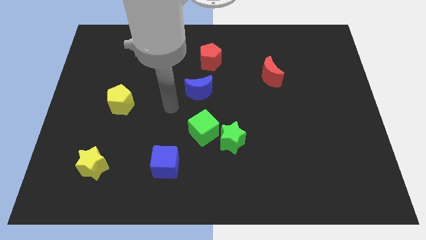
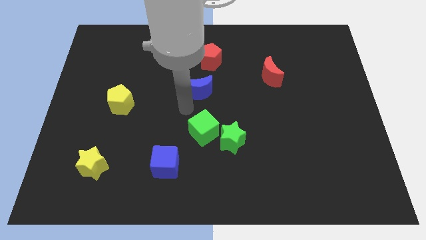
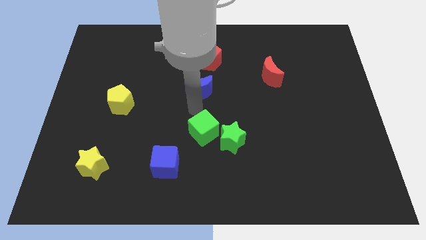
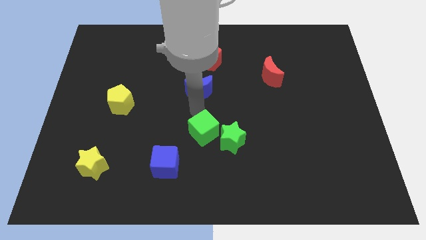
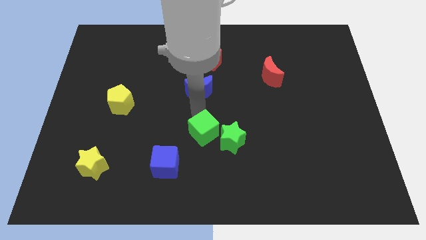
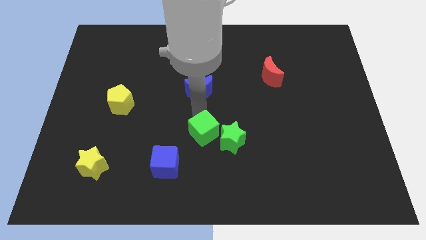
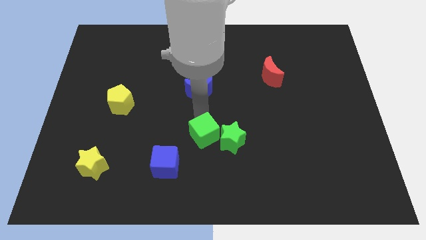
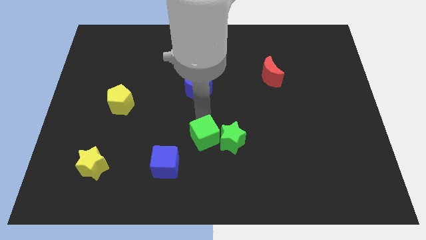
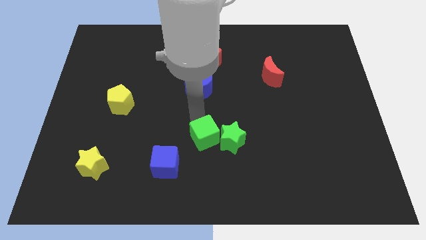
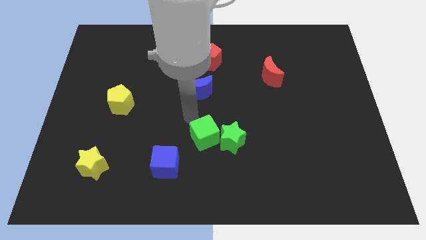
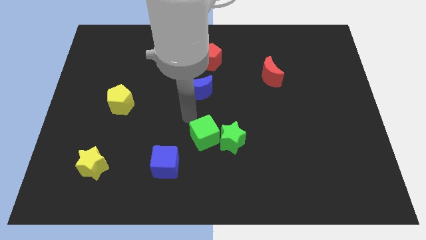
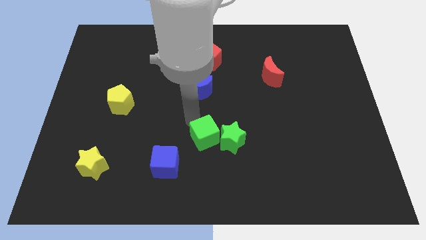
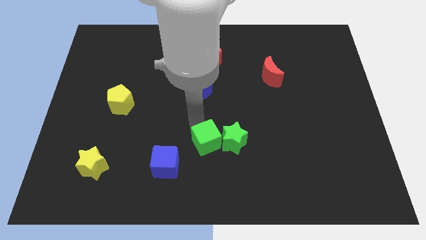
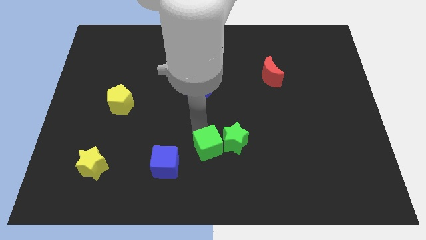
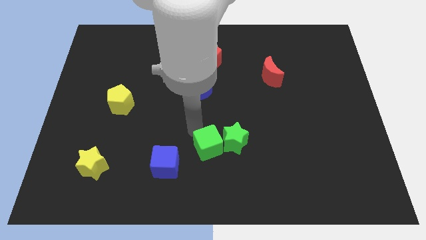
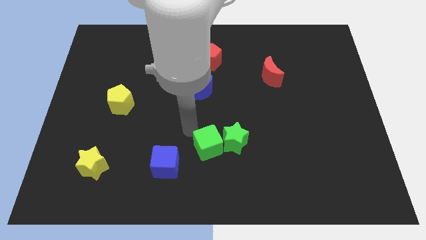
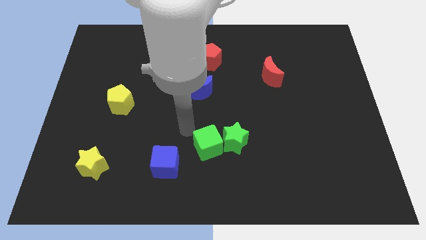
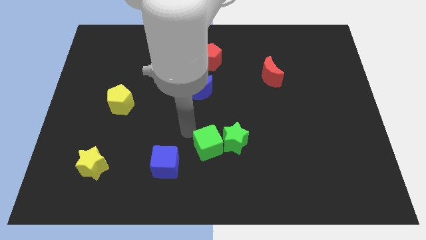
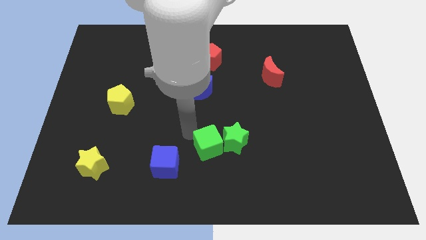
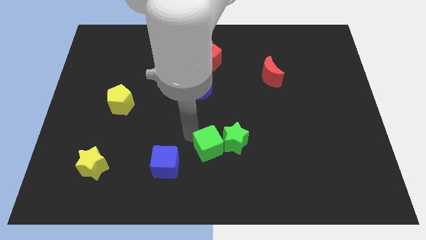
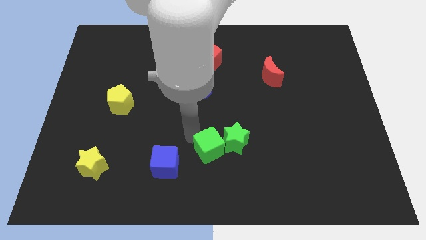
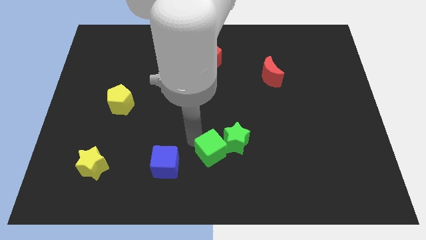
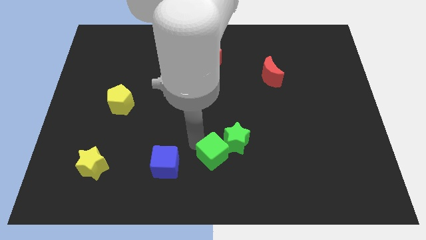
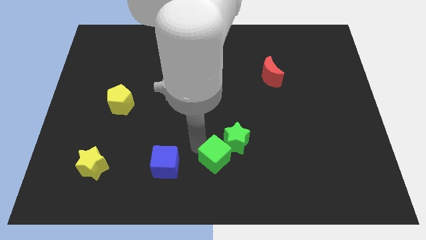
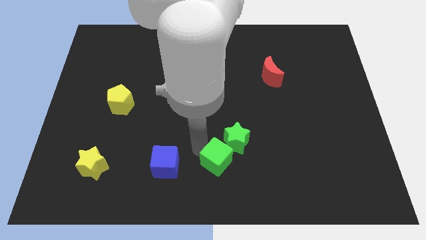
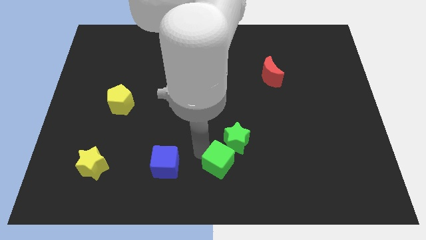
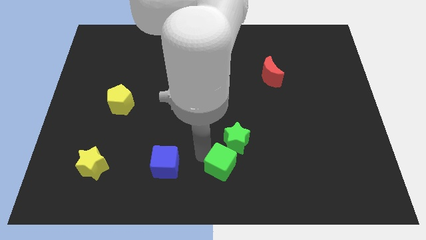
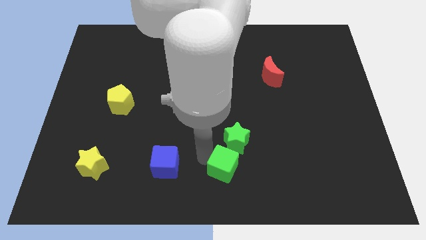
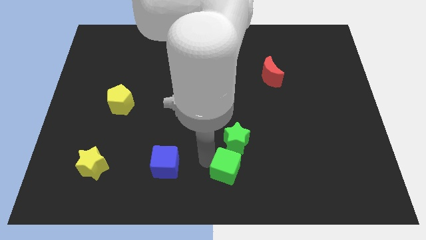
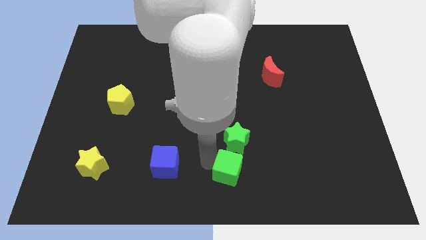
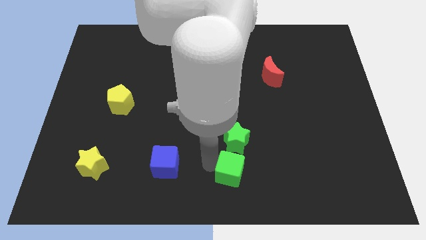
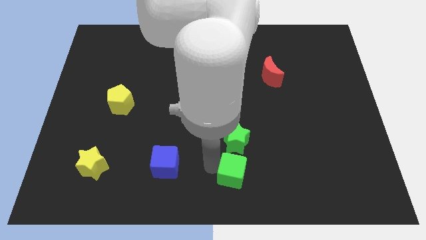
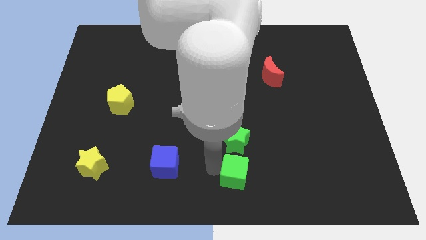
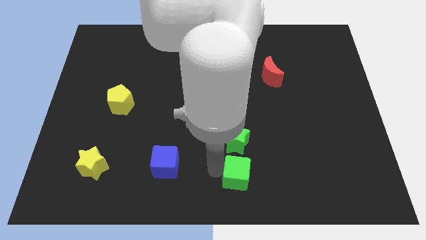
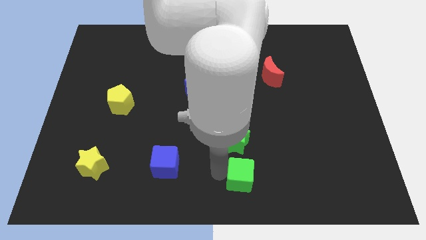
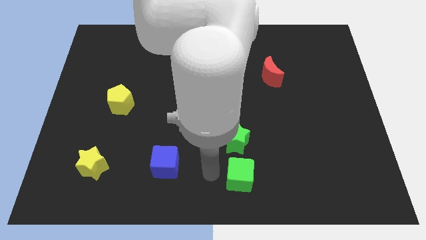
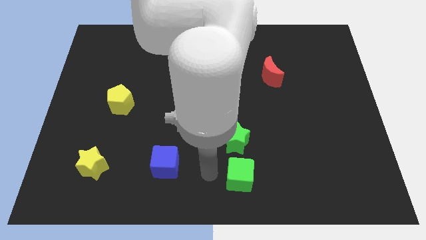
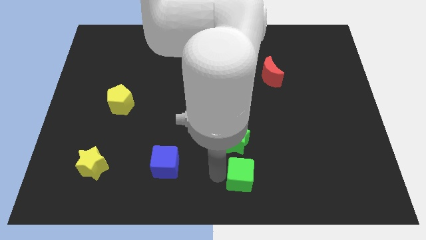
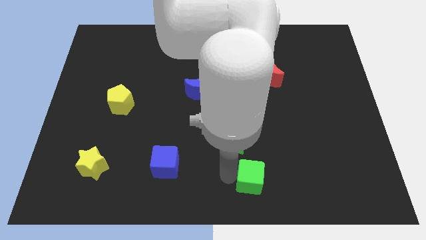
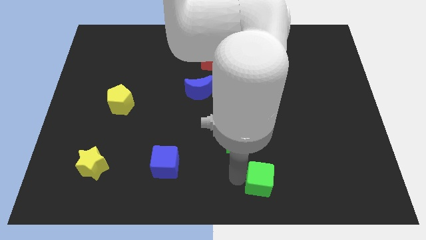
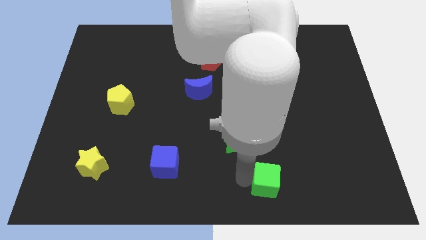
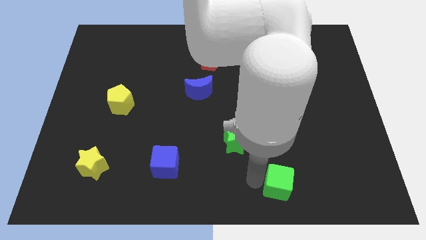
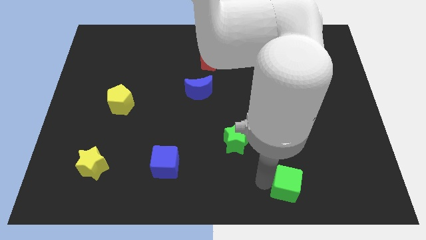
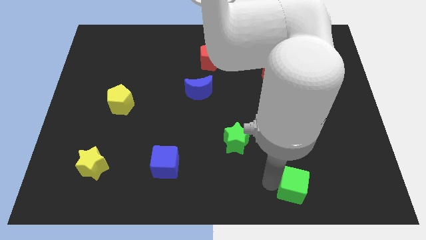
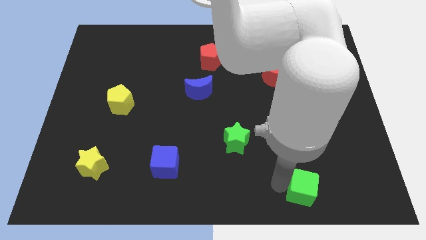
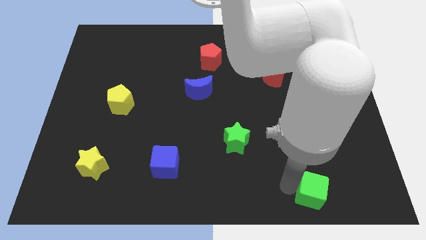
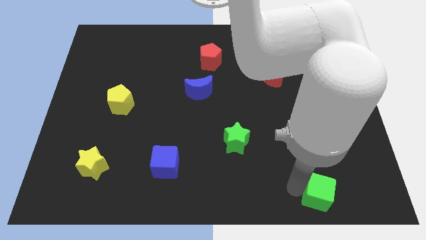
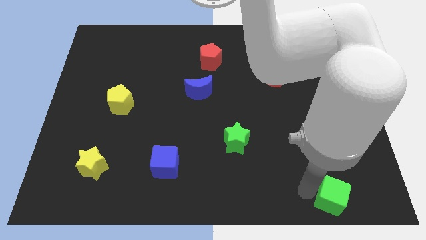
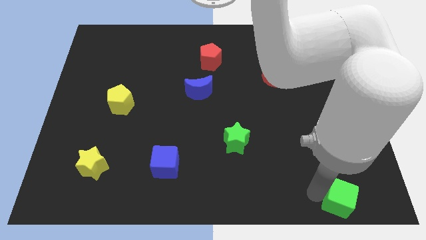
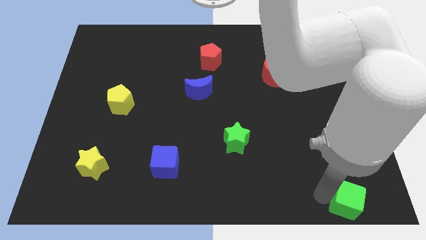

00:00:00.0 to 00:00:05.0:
slide the green cube to the bottom right corner

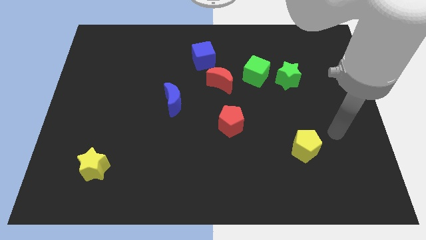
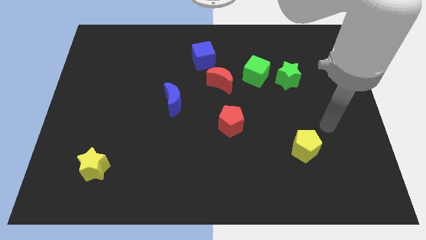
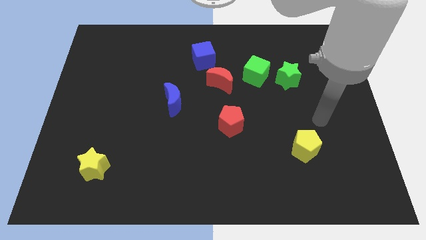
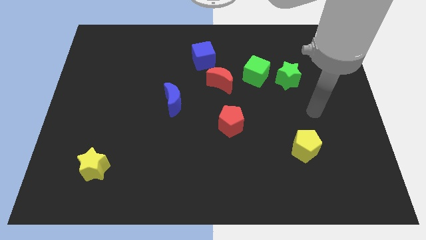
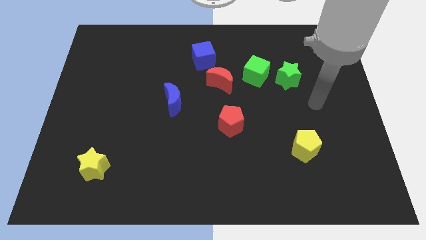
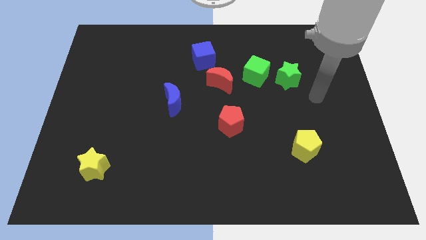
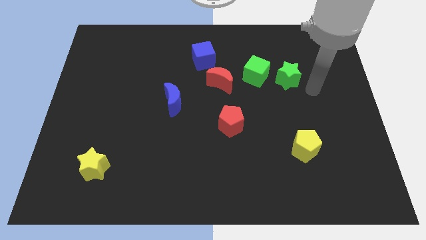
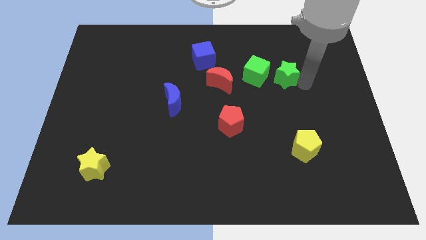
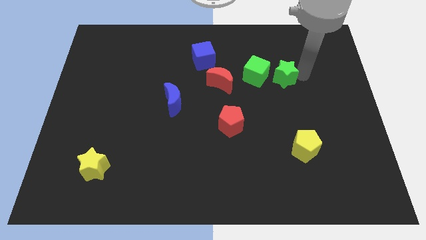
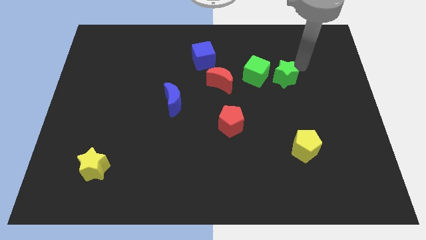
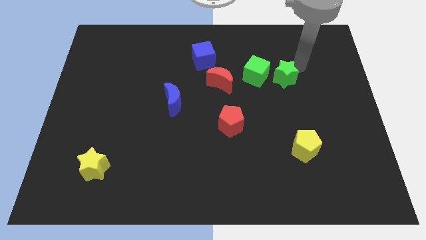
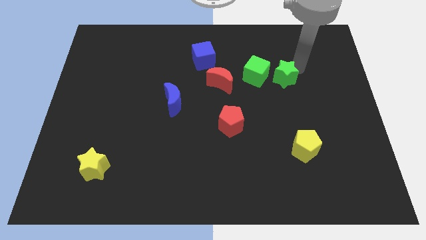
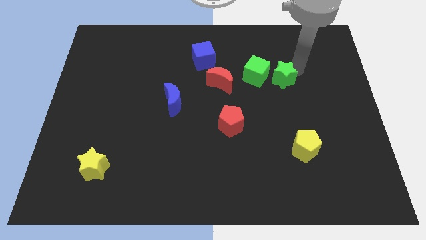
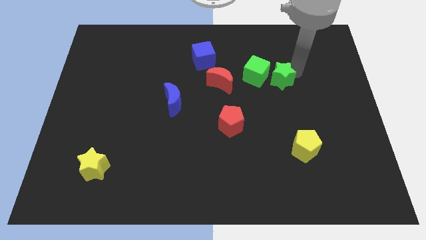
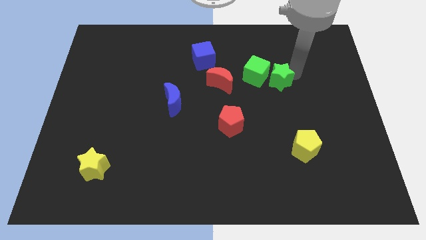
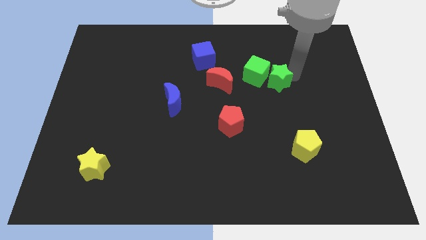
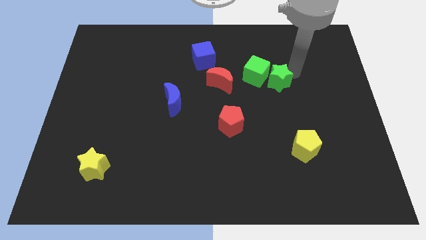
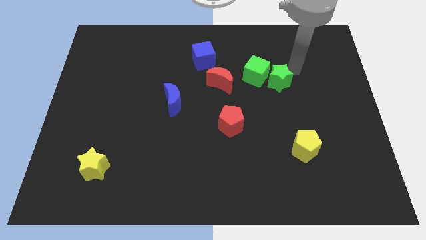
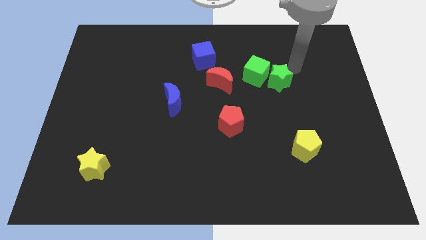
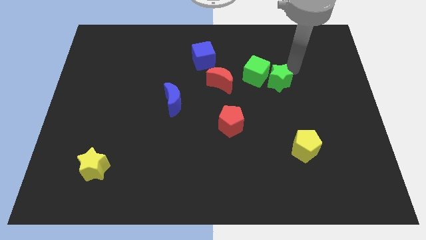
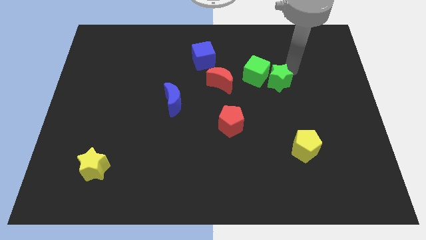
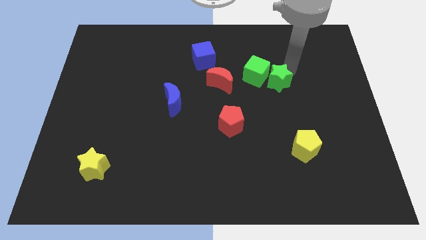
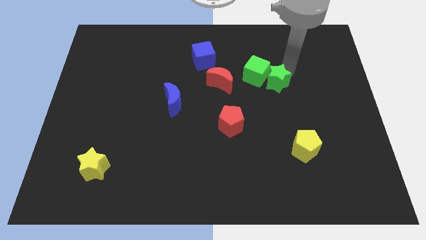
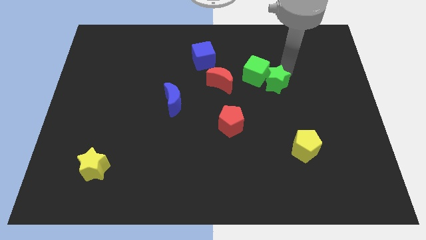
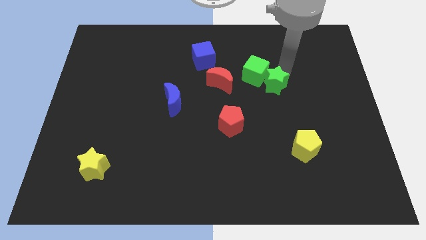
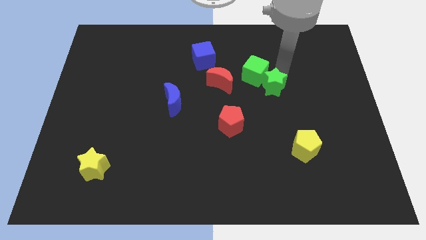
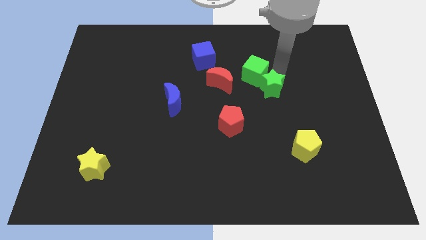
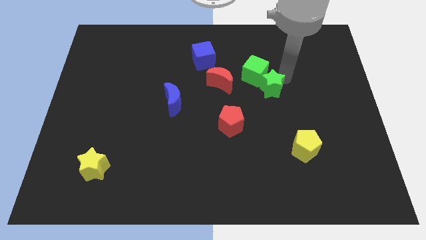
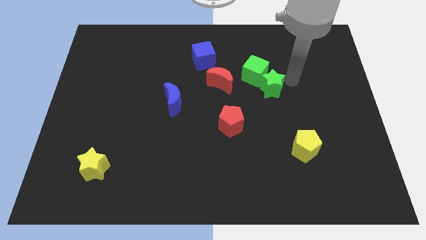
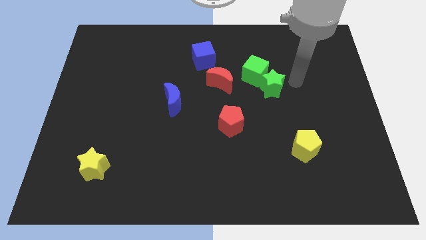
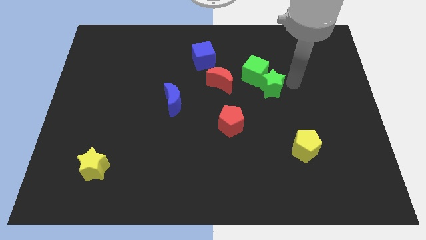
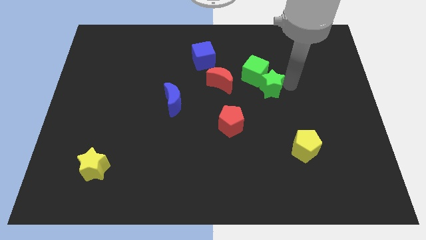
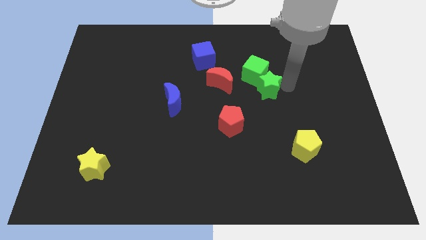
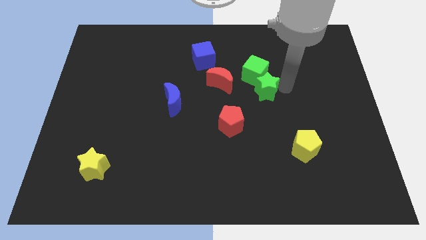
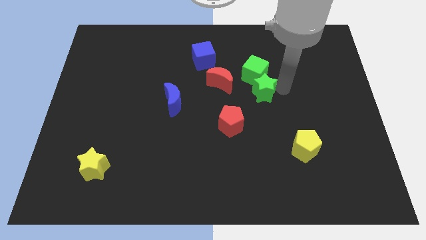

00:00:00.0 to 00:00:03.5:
slide the green star to the center
